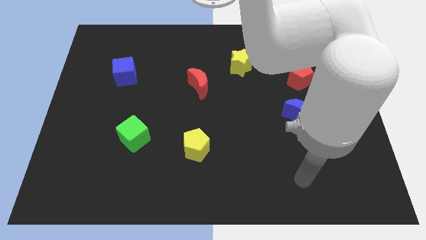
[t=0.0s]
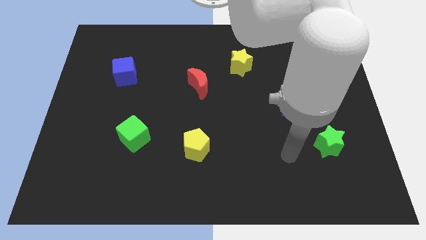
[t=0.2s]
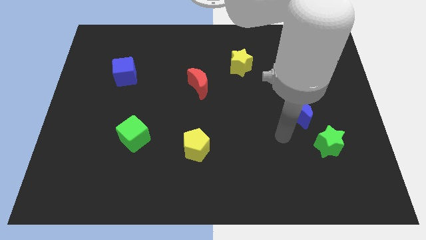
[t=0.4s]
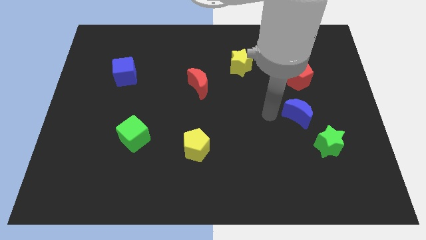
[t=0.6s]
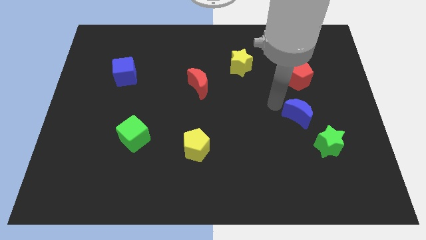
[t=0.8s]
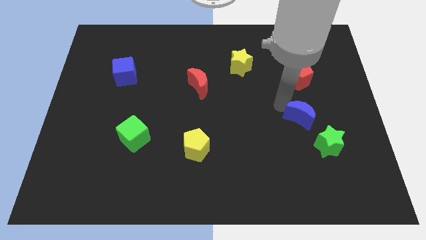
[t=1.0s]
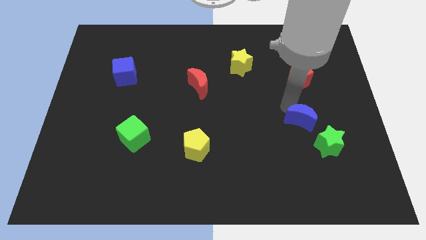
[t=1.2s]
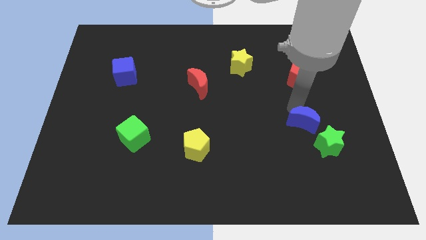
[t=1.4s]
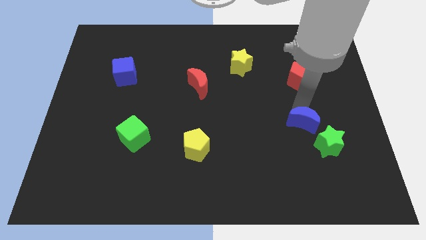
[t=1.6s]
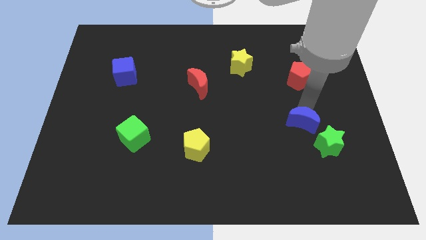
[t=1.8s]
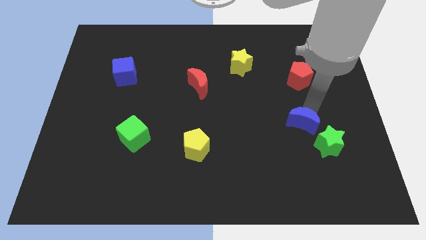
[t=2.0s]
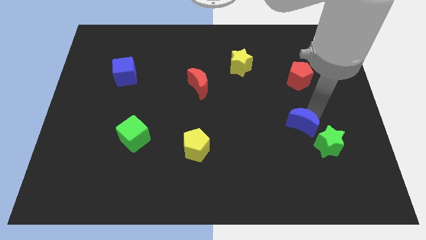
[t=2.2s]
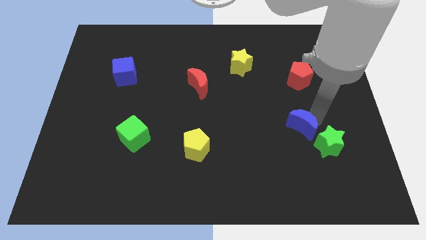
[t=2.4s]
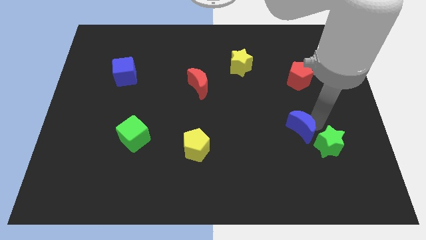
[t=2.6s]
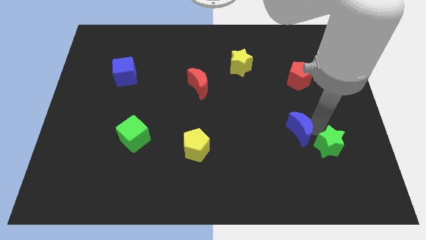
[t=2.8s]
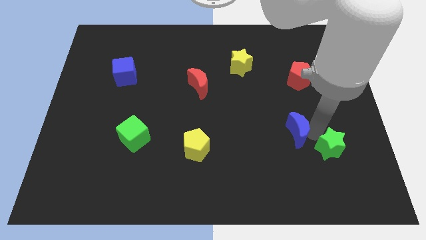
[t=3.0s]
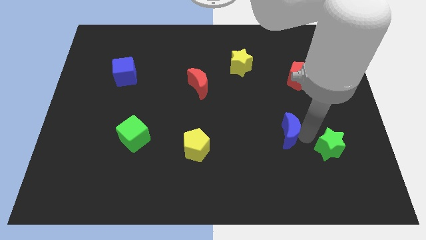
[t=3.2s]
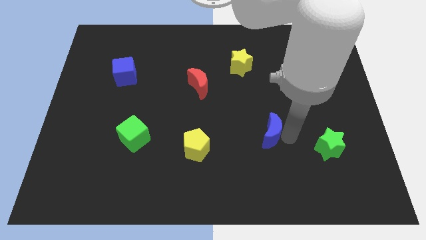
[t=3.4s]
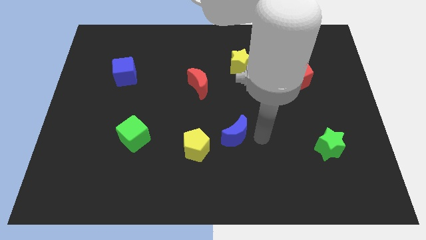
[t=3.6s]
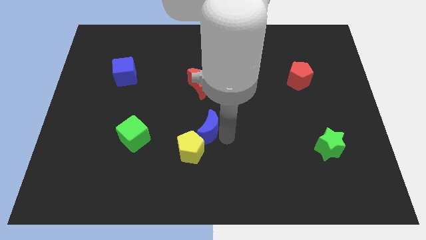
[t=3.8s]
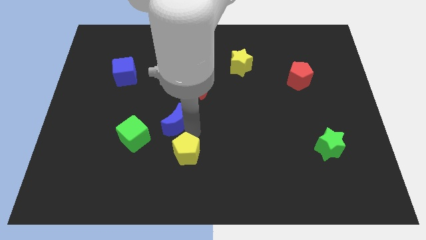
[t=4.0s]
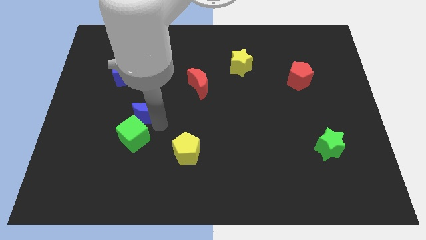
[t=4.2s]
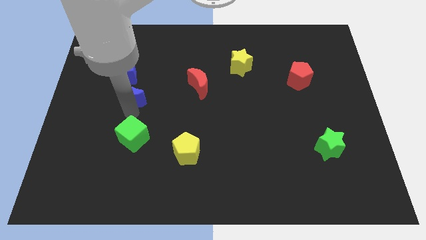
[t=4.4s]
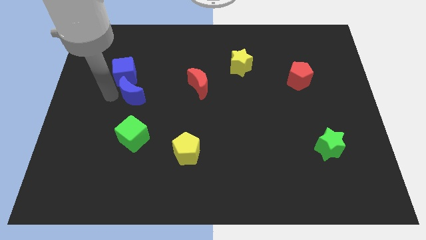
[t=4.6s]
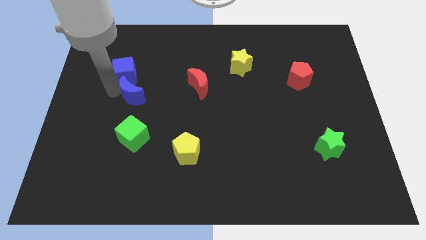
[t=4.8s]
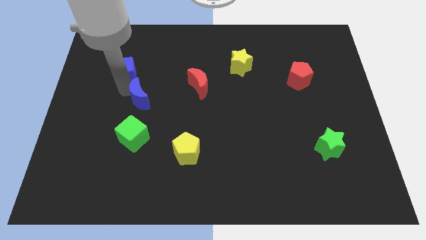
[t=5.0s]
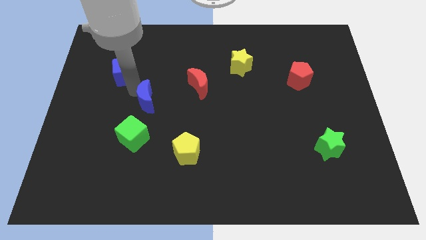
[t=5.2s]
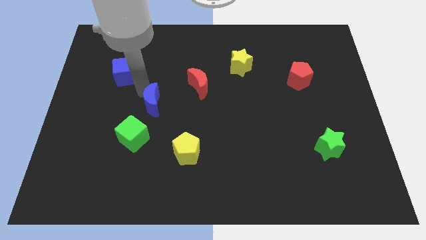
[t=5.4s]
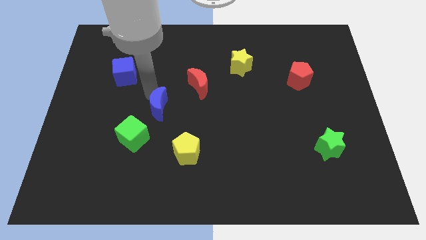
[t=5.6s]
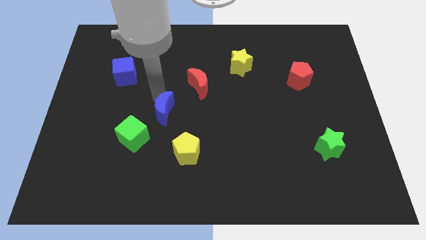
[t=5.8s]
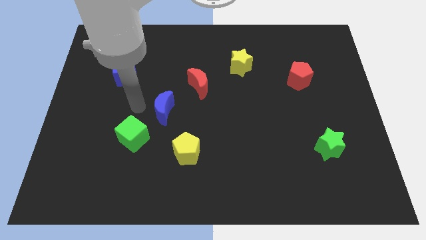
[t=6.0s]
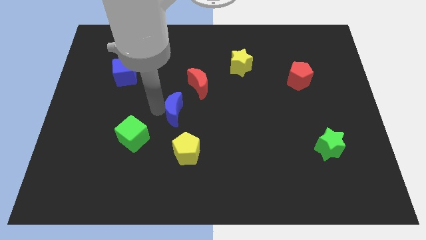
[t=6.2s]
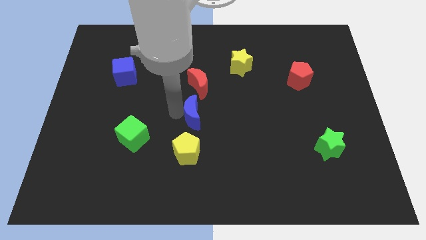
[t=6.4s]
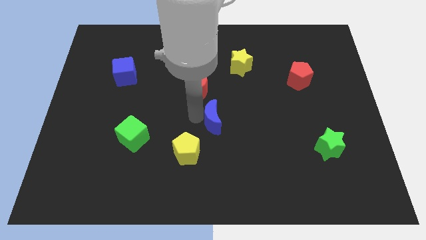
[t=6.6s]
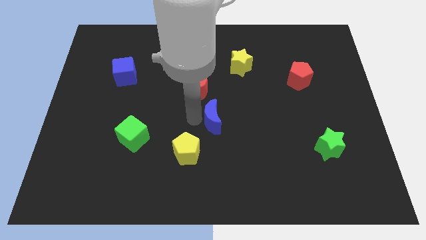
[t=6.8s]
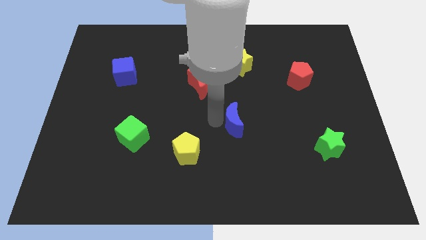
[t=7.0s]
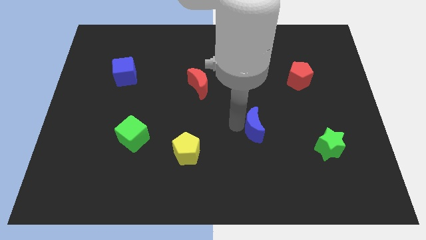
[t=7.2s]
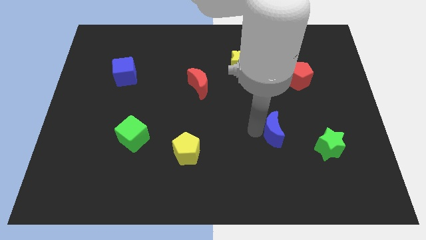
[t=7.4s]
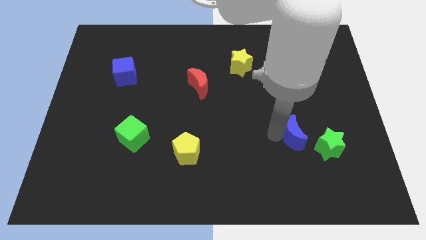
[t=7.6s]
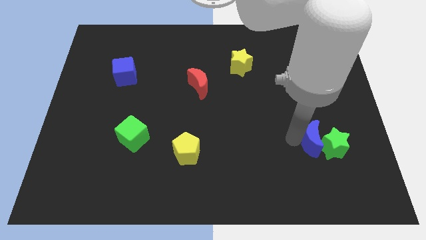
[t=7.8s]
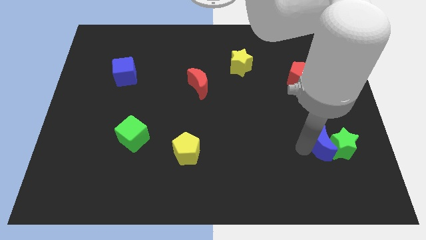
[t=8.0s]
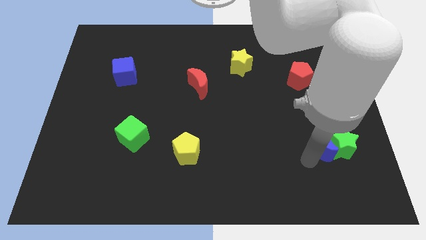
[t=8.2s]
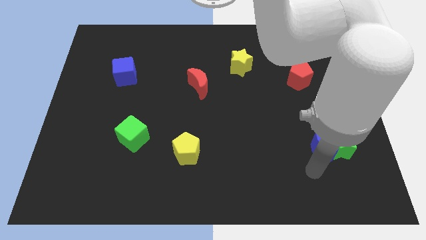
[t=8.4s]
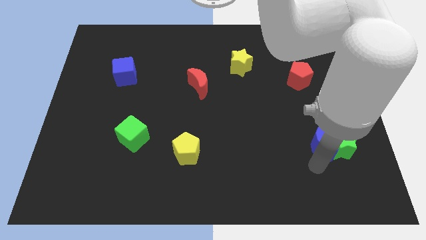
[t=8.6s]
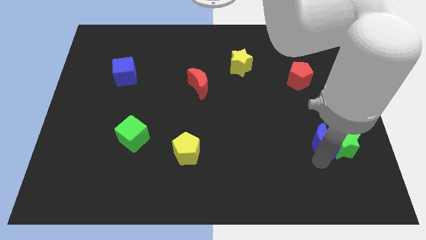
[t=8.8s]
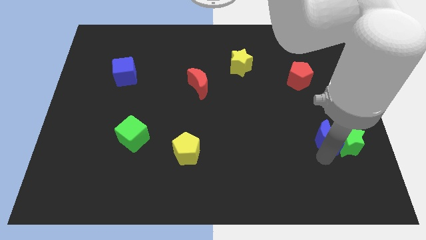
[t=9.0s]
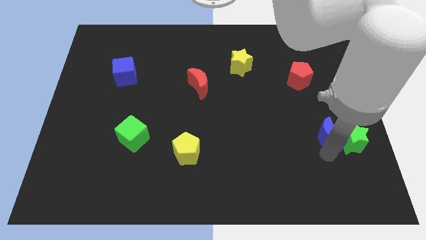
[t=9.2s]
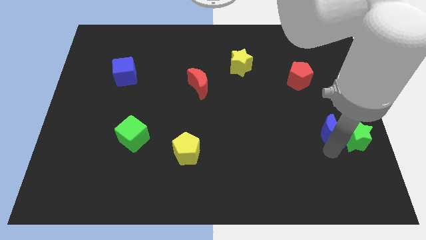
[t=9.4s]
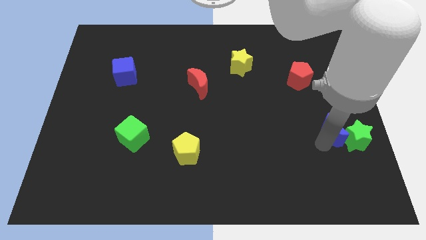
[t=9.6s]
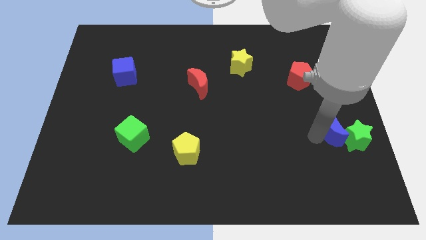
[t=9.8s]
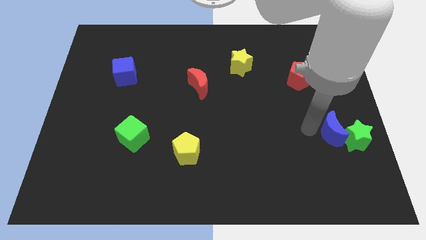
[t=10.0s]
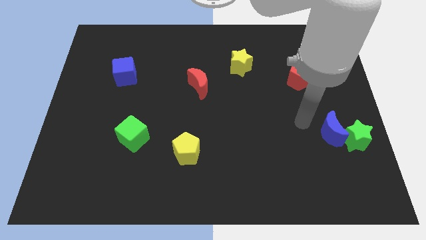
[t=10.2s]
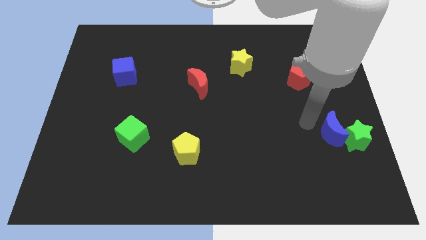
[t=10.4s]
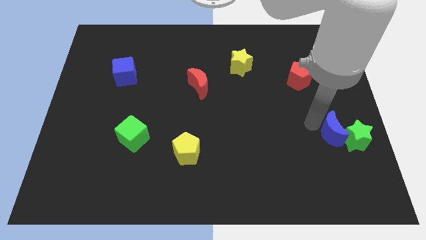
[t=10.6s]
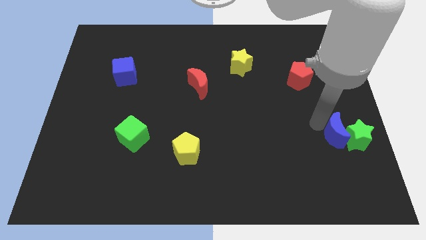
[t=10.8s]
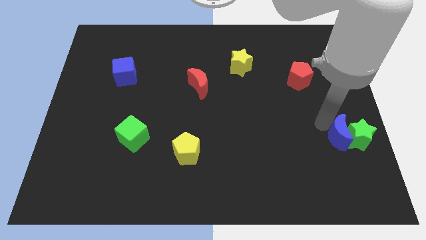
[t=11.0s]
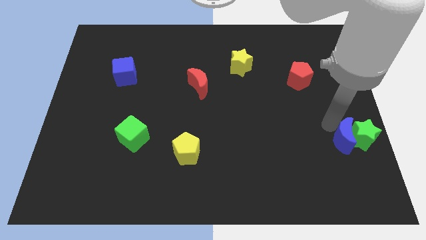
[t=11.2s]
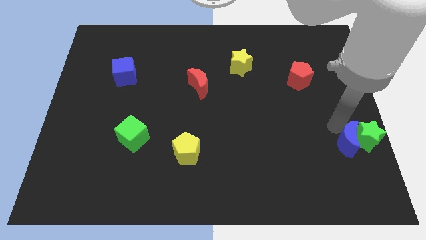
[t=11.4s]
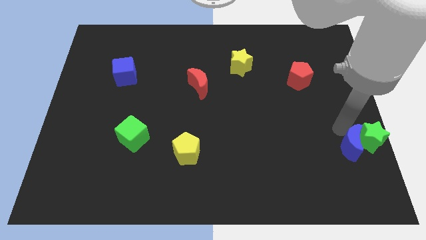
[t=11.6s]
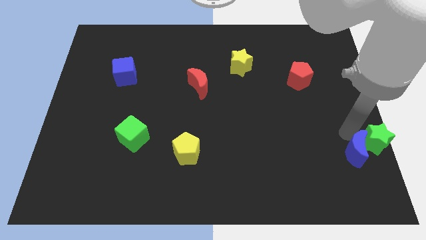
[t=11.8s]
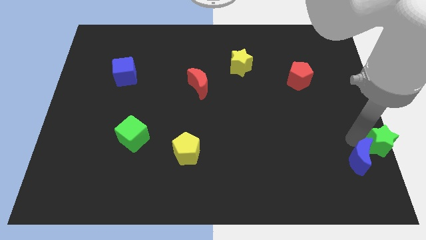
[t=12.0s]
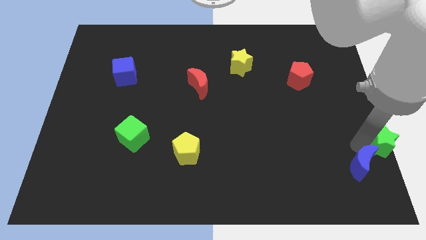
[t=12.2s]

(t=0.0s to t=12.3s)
move the blue moon to the bottom right
